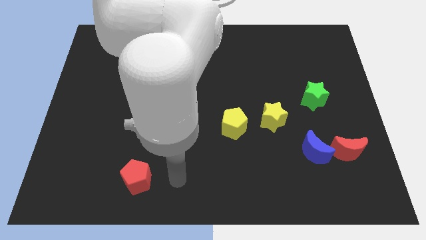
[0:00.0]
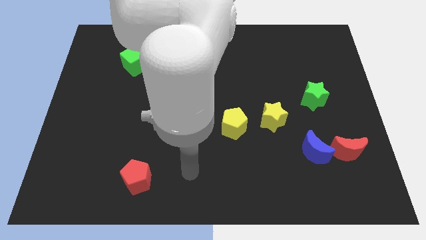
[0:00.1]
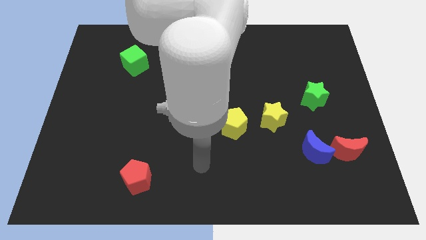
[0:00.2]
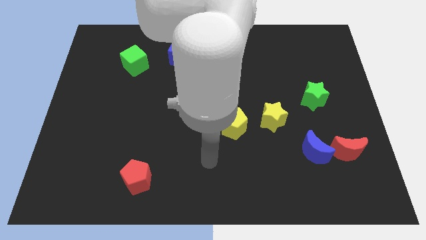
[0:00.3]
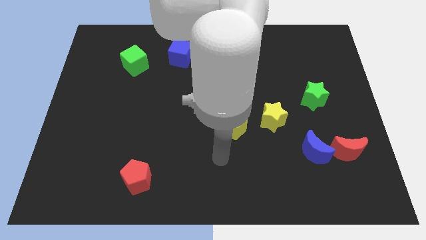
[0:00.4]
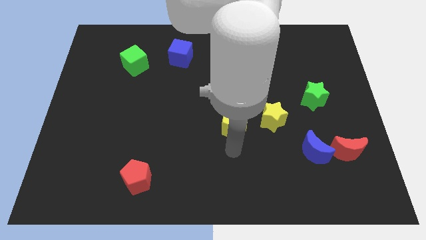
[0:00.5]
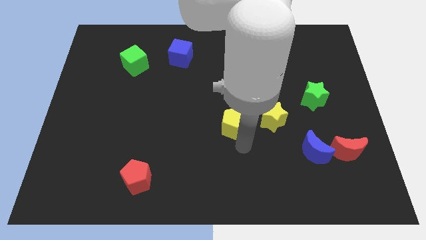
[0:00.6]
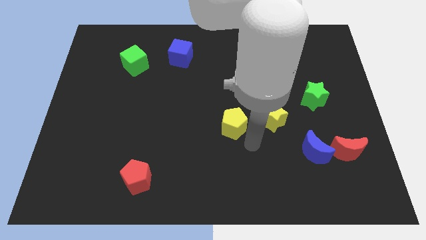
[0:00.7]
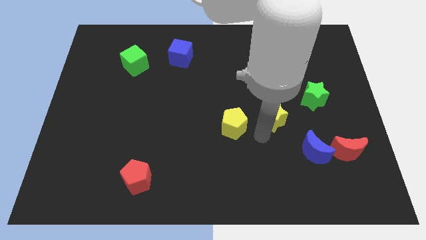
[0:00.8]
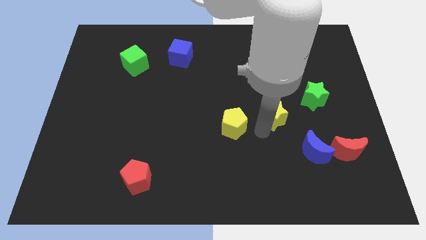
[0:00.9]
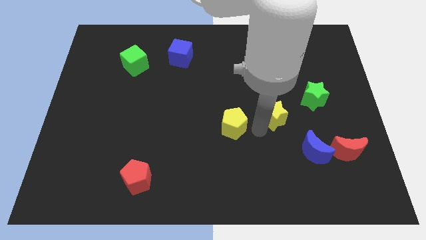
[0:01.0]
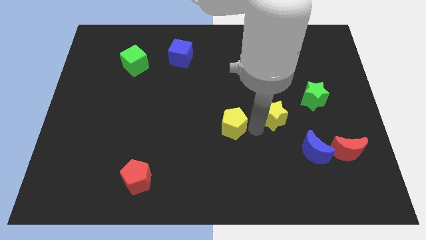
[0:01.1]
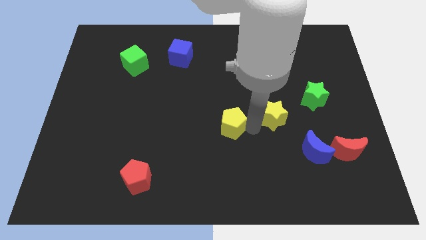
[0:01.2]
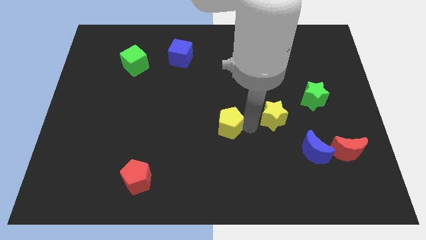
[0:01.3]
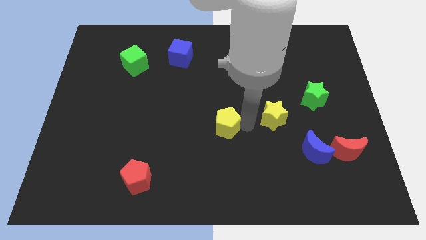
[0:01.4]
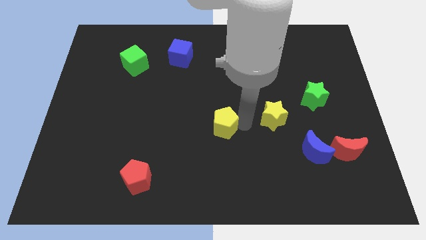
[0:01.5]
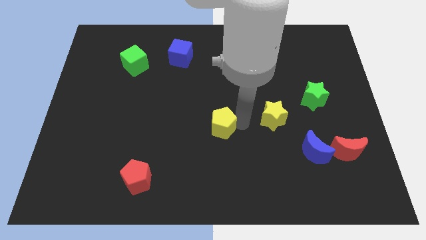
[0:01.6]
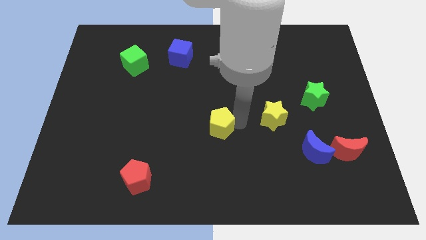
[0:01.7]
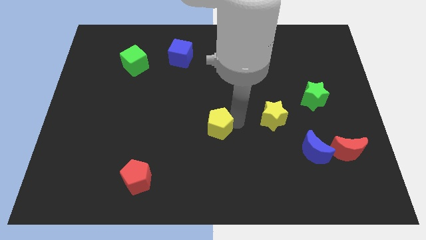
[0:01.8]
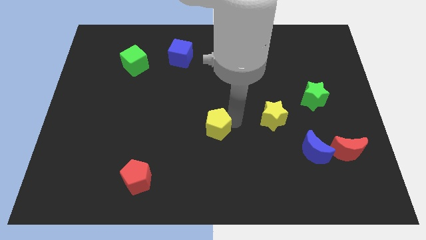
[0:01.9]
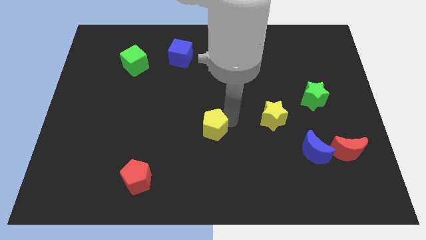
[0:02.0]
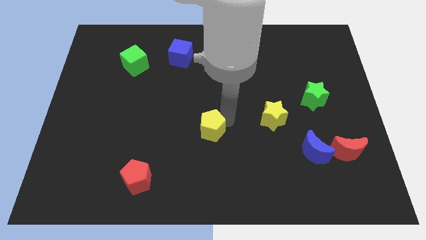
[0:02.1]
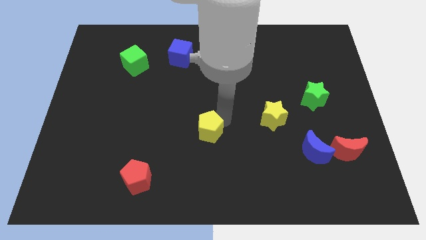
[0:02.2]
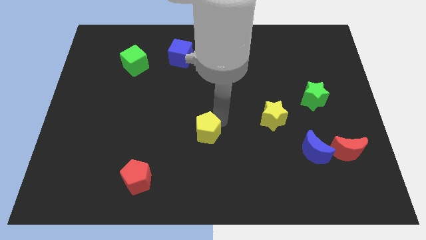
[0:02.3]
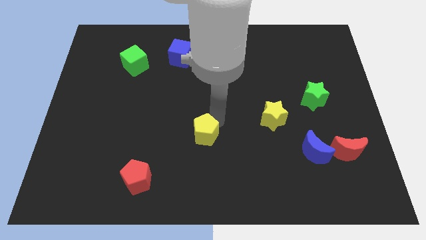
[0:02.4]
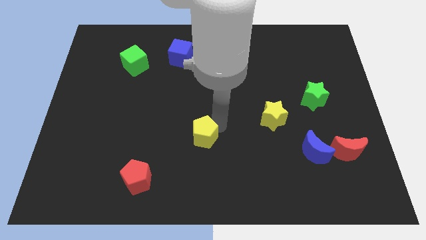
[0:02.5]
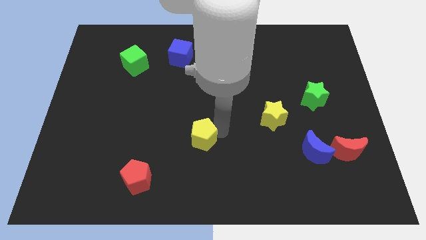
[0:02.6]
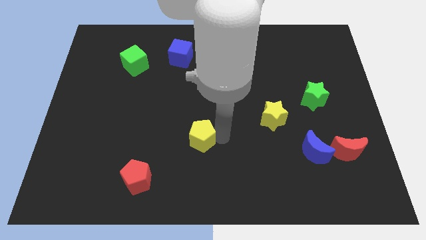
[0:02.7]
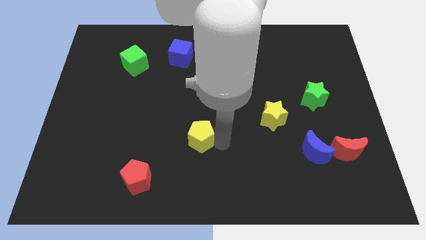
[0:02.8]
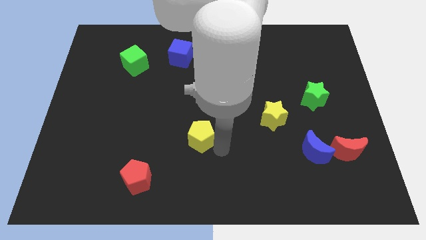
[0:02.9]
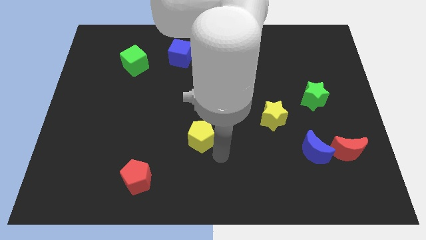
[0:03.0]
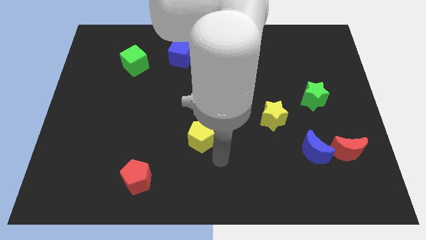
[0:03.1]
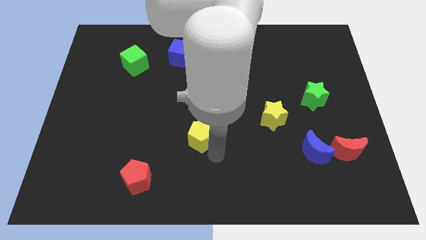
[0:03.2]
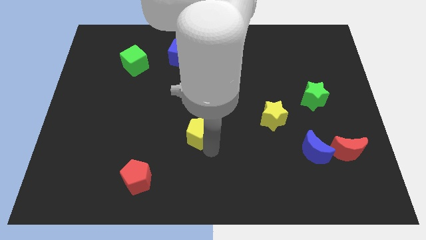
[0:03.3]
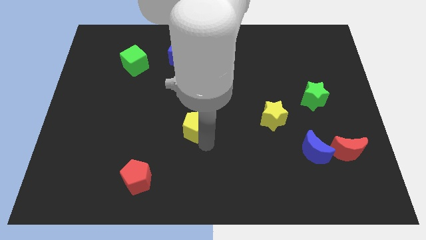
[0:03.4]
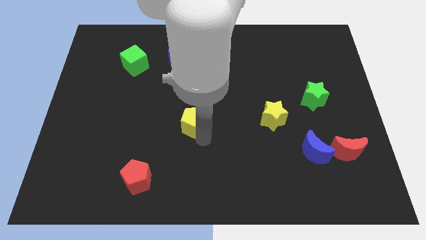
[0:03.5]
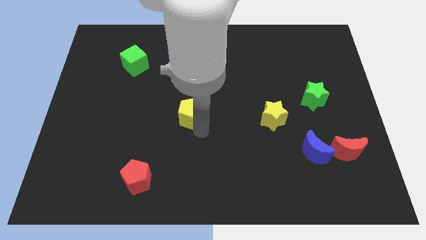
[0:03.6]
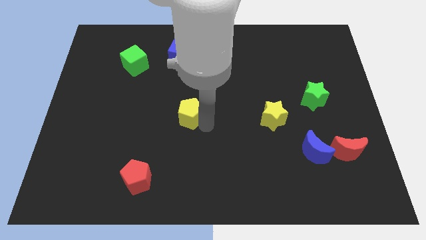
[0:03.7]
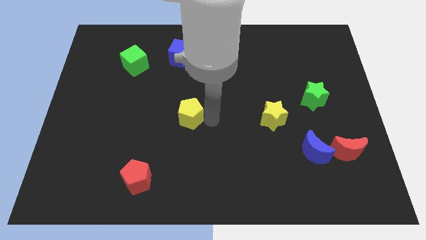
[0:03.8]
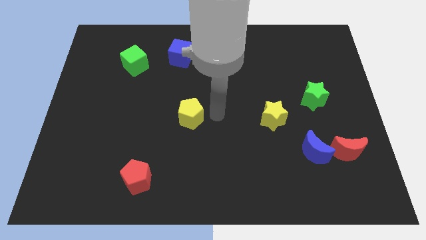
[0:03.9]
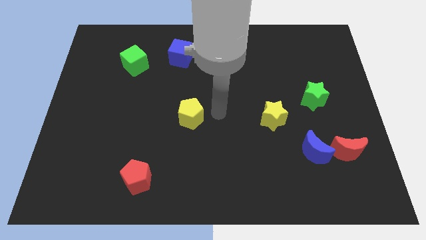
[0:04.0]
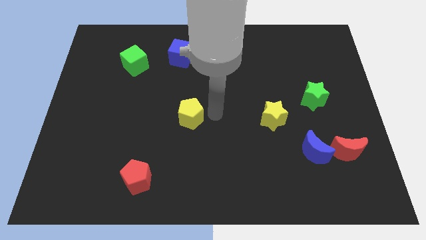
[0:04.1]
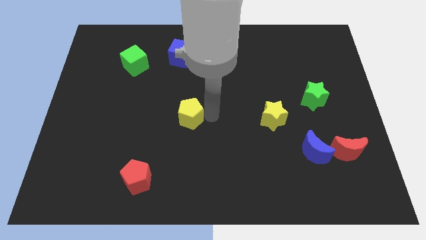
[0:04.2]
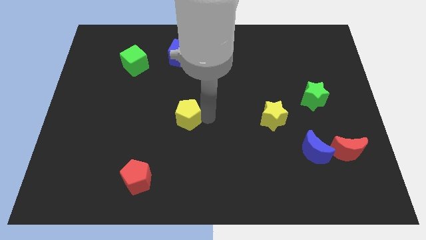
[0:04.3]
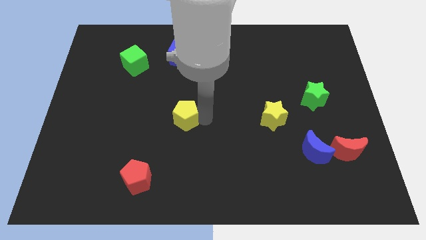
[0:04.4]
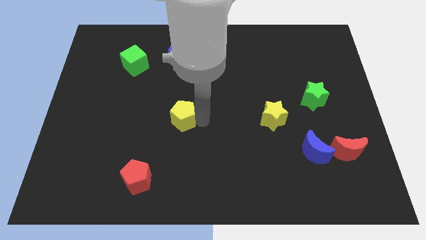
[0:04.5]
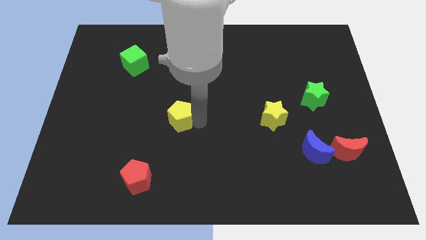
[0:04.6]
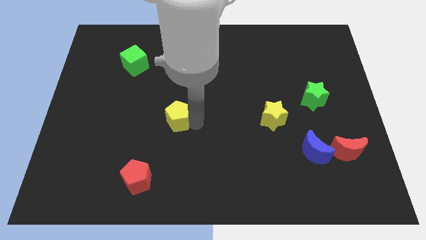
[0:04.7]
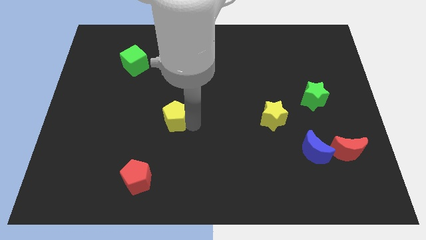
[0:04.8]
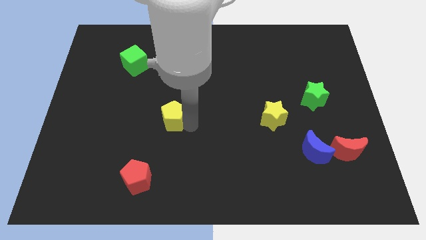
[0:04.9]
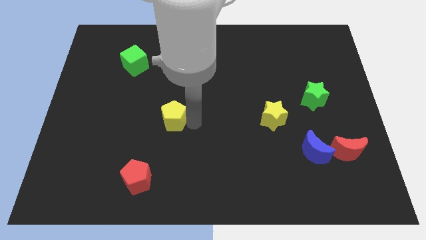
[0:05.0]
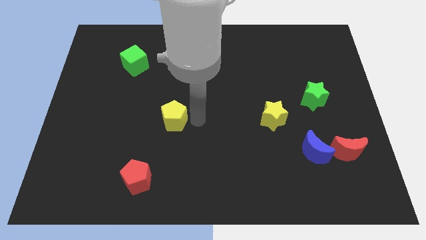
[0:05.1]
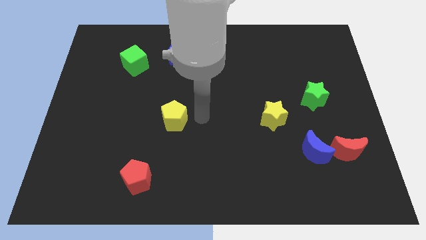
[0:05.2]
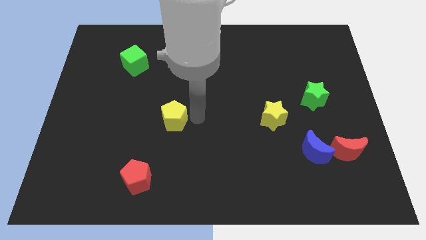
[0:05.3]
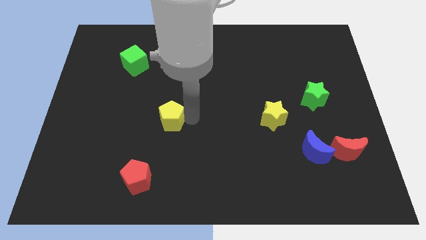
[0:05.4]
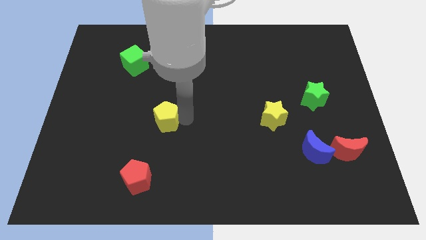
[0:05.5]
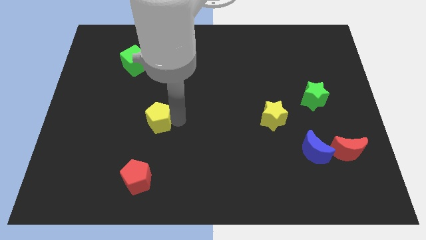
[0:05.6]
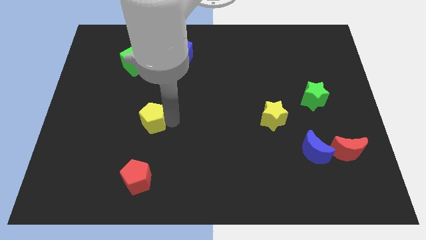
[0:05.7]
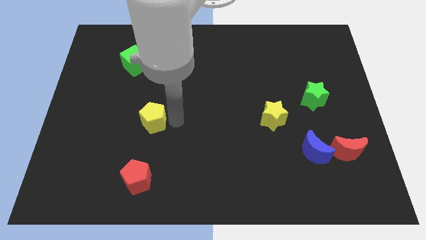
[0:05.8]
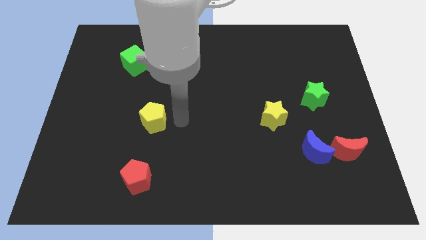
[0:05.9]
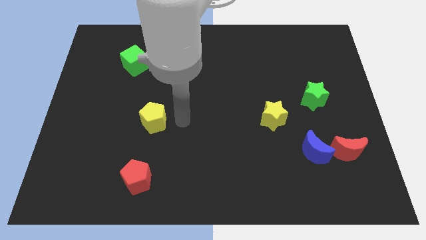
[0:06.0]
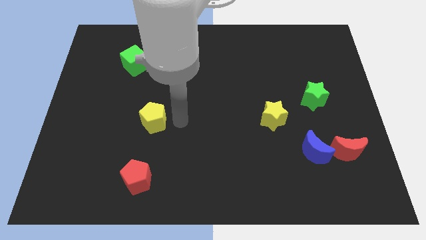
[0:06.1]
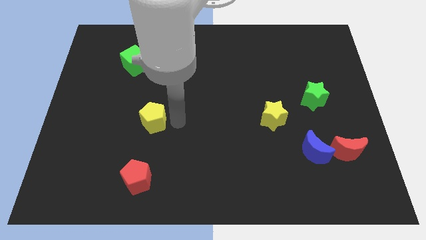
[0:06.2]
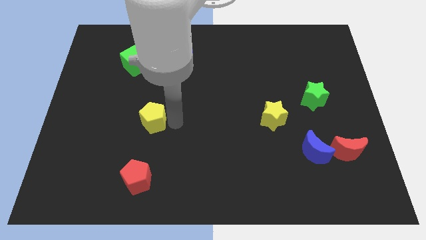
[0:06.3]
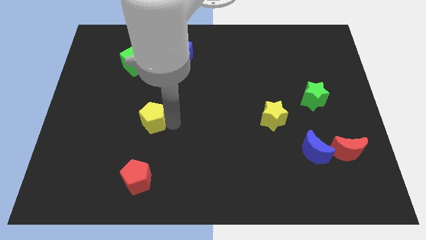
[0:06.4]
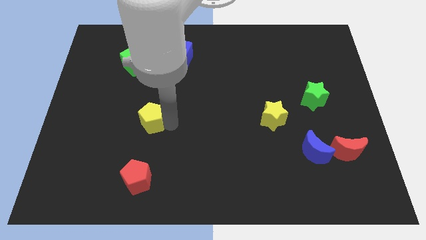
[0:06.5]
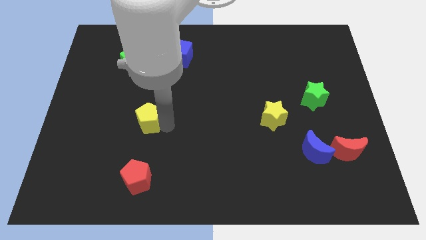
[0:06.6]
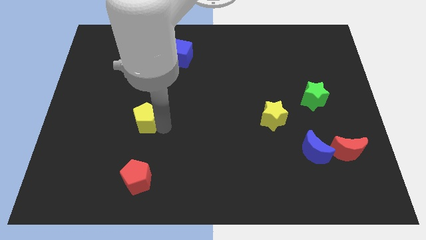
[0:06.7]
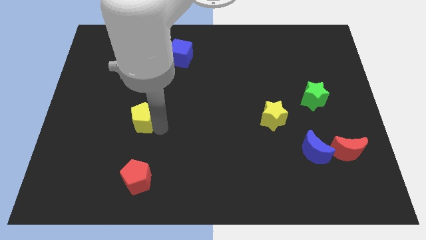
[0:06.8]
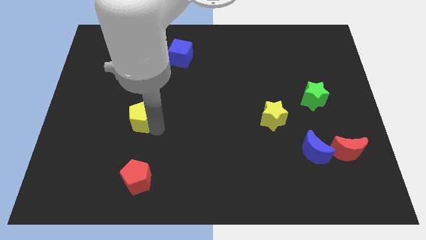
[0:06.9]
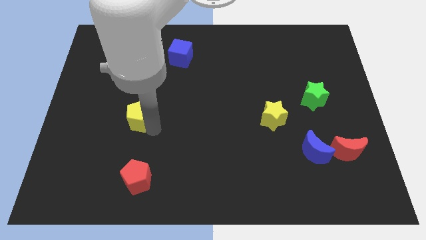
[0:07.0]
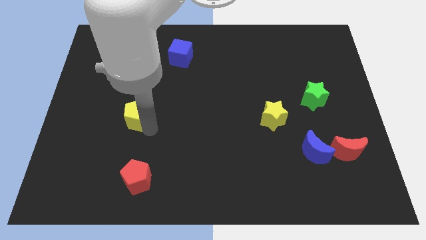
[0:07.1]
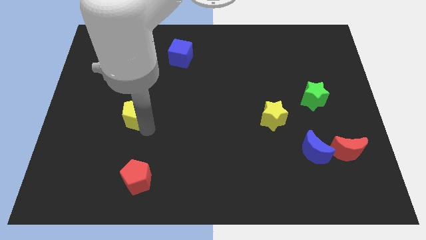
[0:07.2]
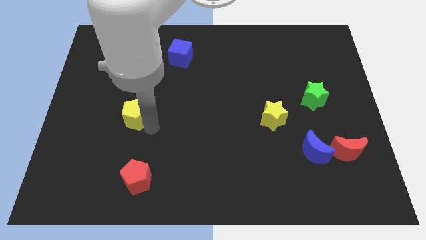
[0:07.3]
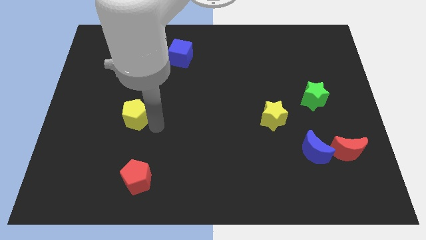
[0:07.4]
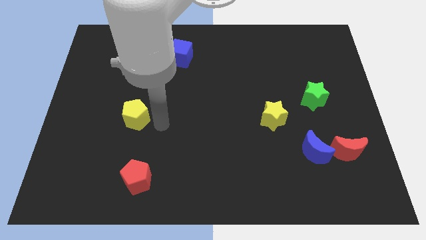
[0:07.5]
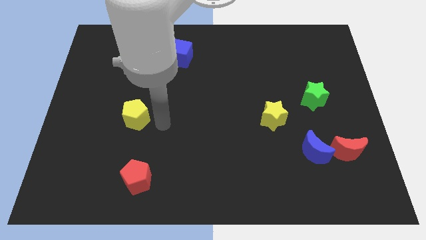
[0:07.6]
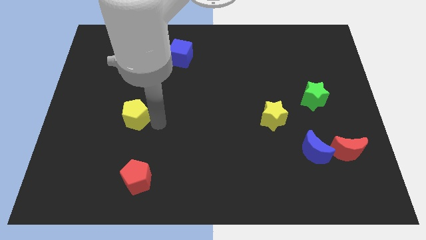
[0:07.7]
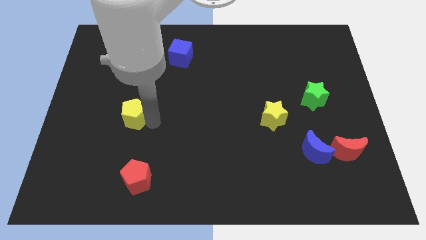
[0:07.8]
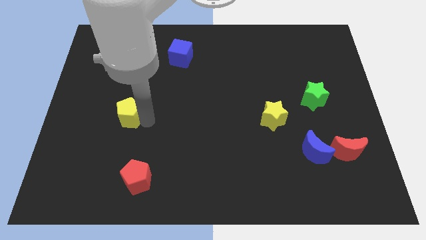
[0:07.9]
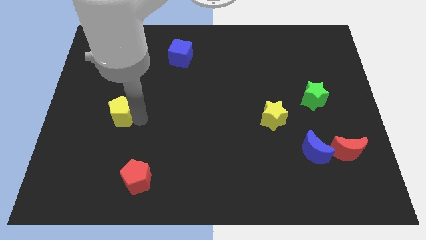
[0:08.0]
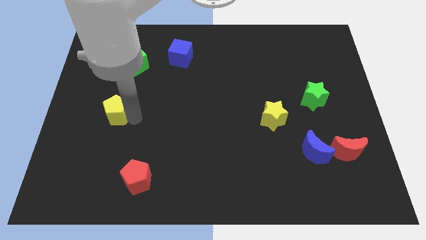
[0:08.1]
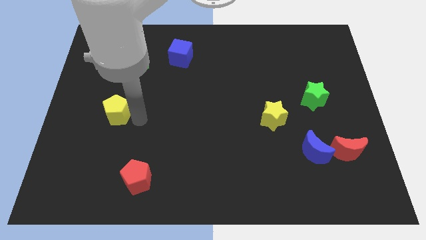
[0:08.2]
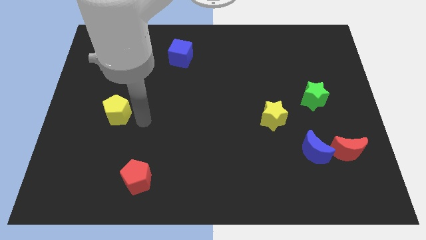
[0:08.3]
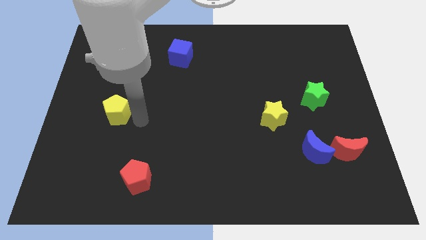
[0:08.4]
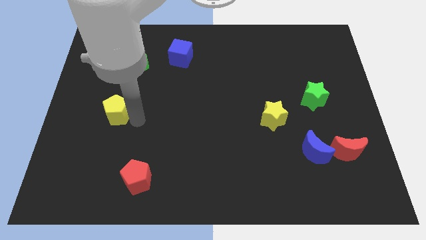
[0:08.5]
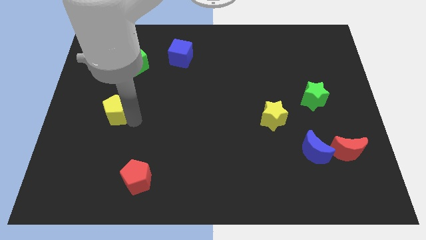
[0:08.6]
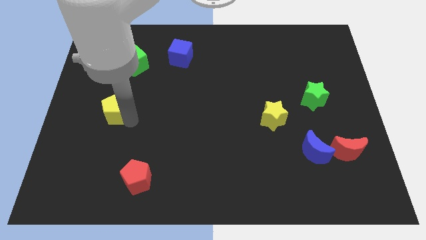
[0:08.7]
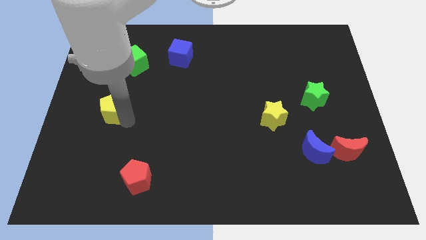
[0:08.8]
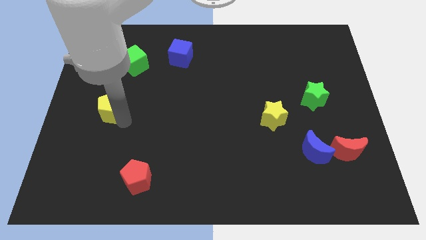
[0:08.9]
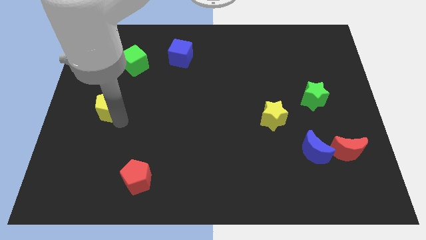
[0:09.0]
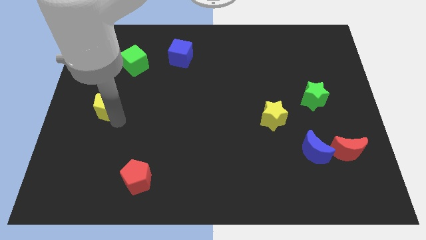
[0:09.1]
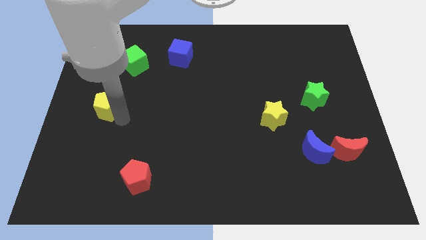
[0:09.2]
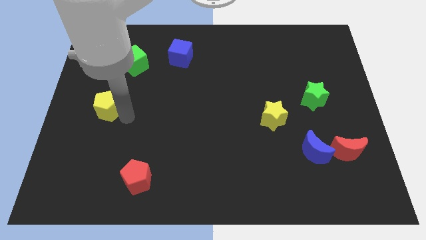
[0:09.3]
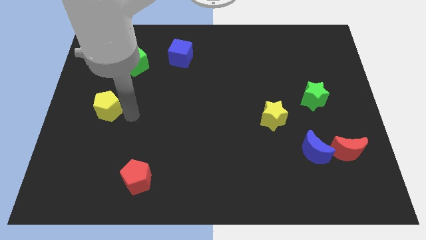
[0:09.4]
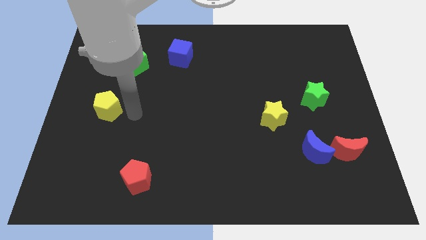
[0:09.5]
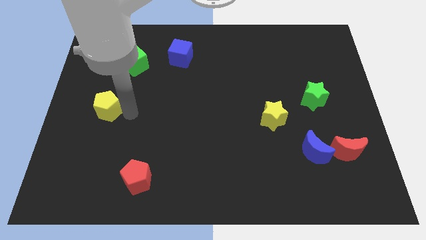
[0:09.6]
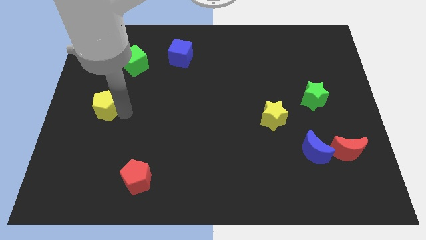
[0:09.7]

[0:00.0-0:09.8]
push the yellow pentagon to the center left
